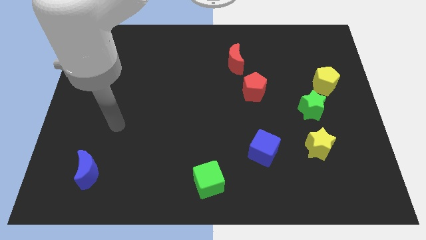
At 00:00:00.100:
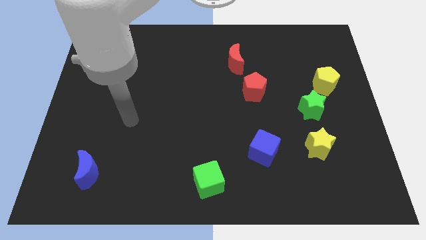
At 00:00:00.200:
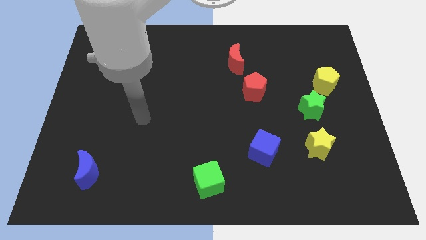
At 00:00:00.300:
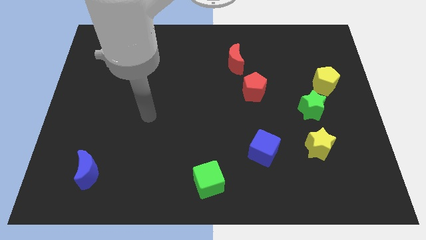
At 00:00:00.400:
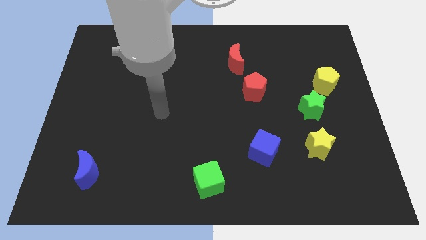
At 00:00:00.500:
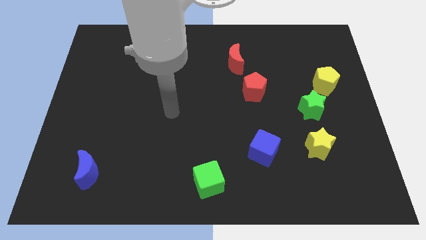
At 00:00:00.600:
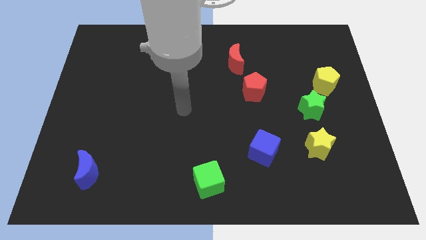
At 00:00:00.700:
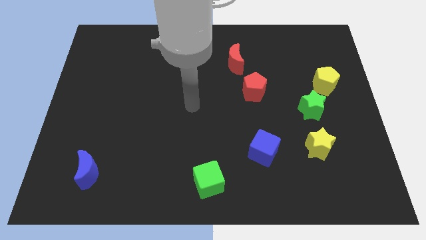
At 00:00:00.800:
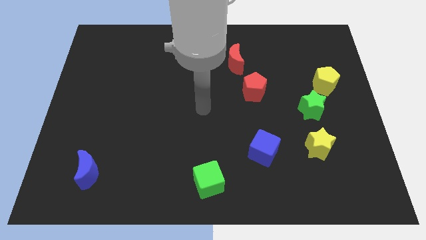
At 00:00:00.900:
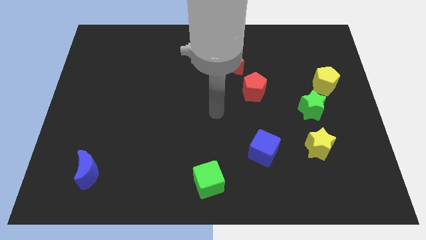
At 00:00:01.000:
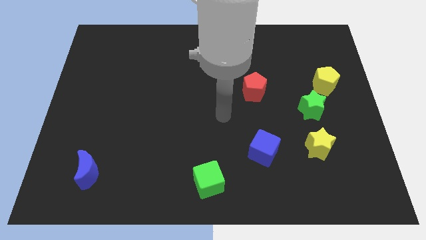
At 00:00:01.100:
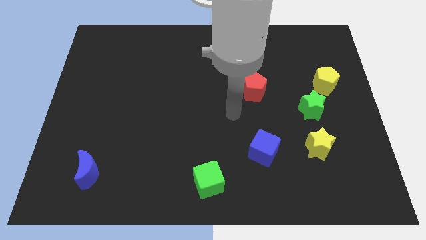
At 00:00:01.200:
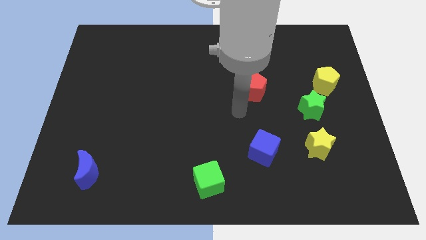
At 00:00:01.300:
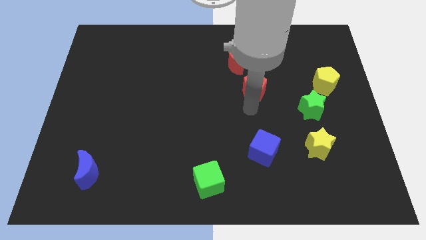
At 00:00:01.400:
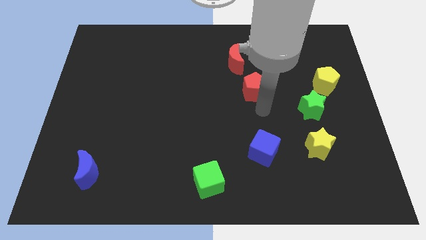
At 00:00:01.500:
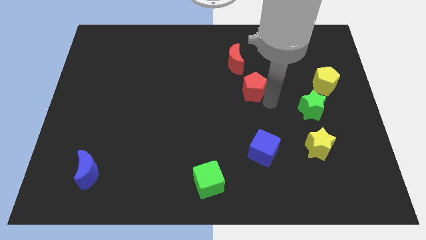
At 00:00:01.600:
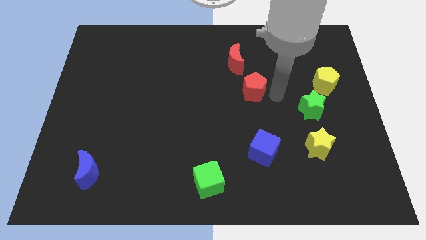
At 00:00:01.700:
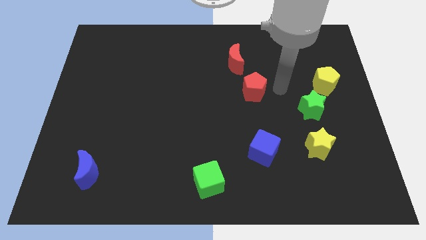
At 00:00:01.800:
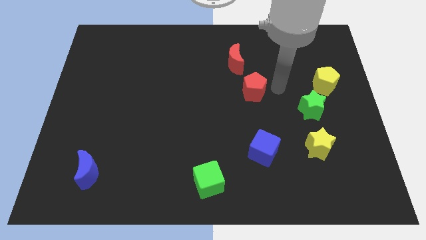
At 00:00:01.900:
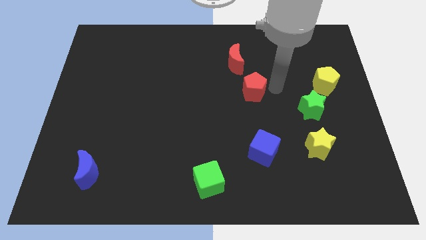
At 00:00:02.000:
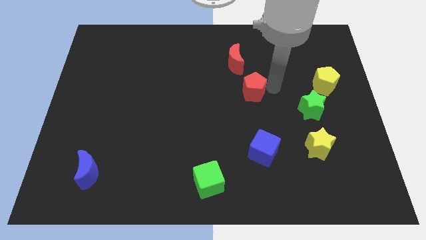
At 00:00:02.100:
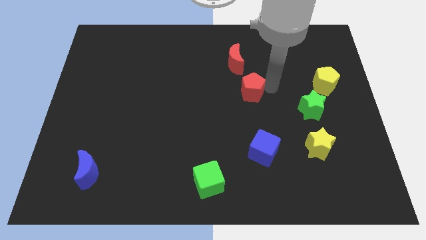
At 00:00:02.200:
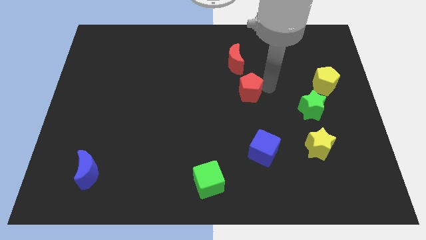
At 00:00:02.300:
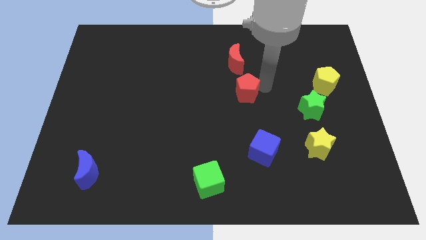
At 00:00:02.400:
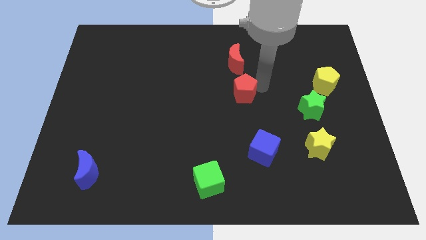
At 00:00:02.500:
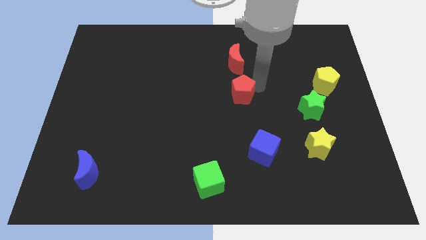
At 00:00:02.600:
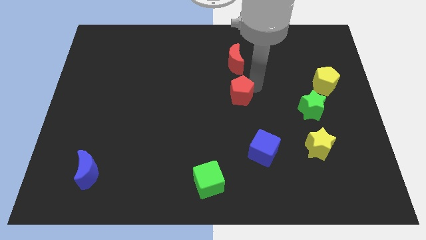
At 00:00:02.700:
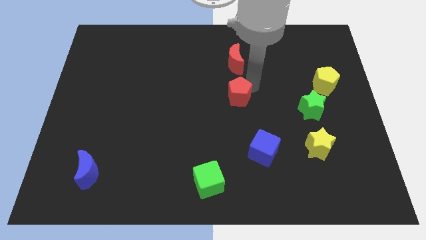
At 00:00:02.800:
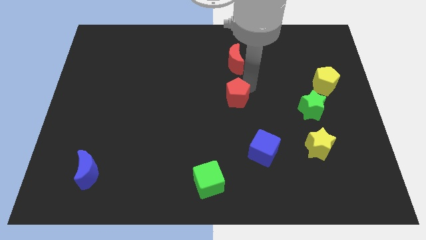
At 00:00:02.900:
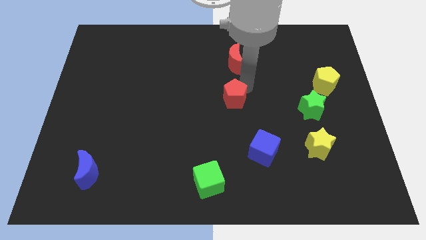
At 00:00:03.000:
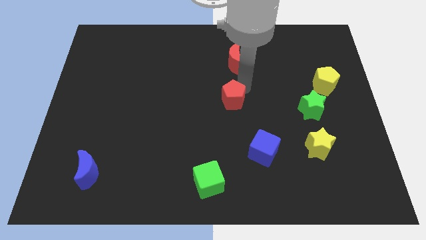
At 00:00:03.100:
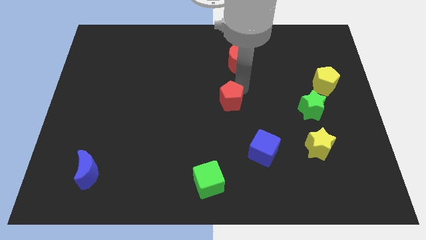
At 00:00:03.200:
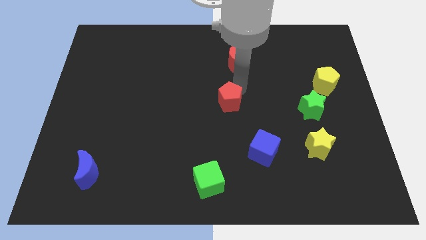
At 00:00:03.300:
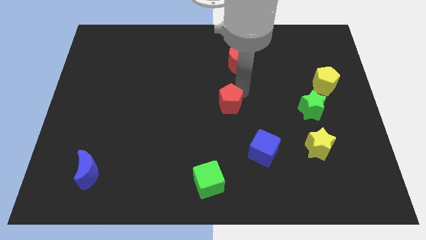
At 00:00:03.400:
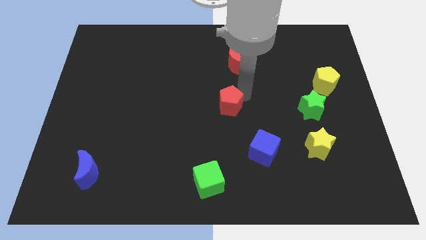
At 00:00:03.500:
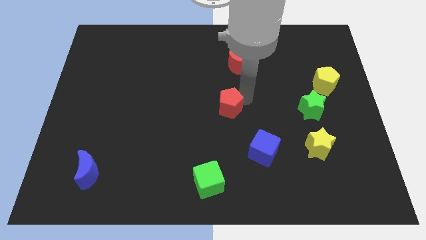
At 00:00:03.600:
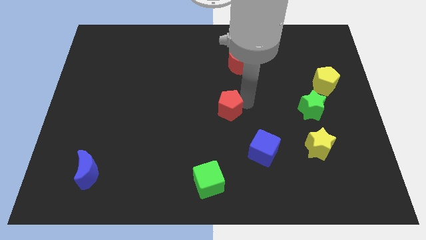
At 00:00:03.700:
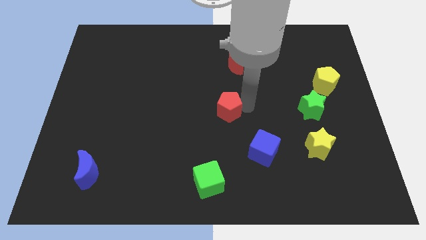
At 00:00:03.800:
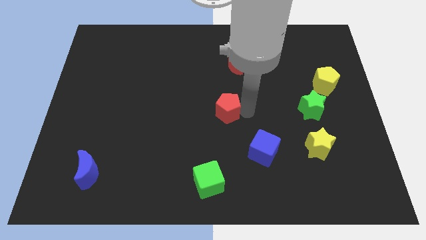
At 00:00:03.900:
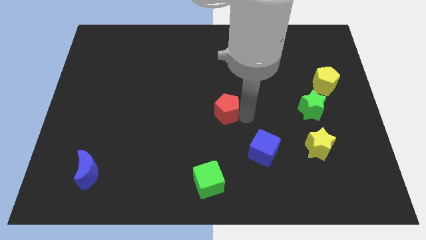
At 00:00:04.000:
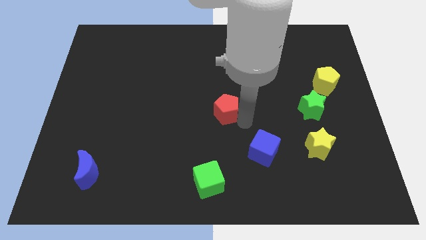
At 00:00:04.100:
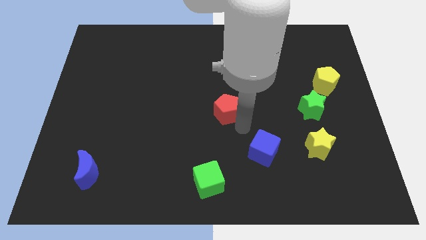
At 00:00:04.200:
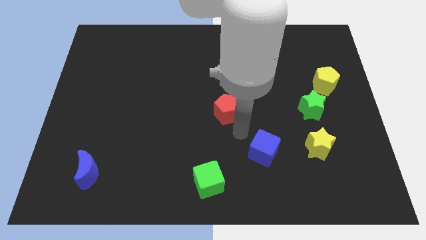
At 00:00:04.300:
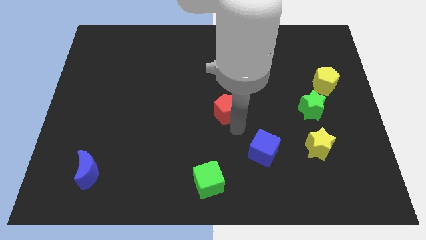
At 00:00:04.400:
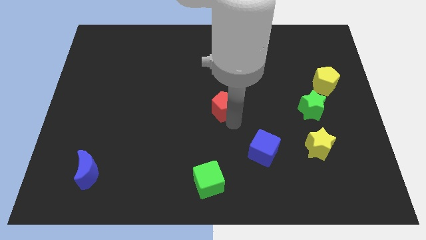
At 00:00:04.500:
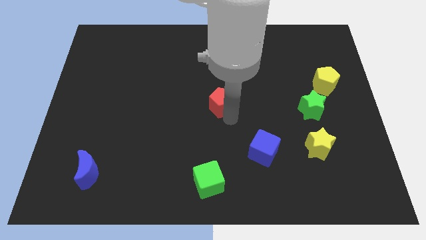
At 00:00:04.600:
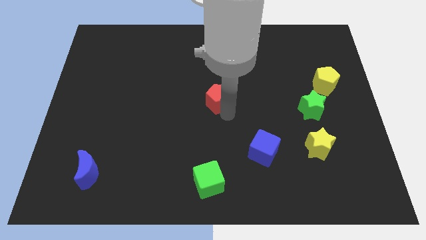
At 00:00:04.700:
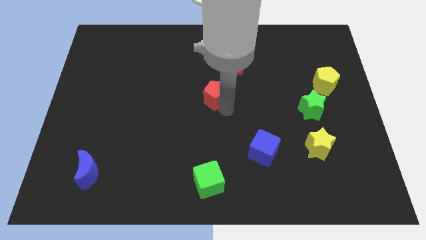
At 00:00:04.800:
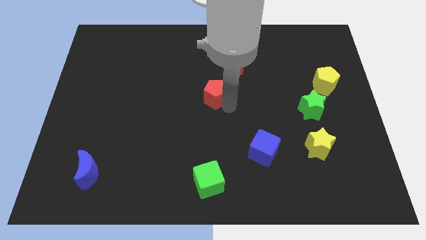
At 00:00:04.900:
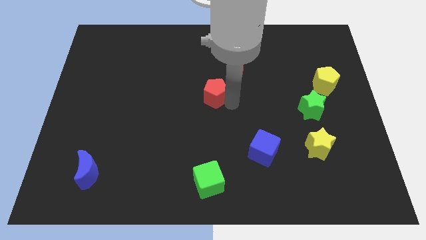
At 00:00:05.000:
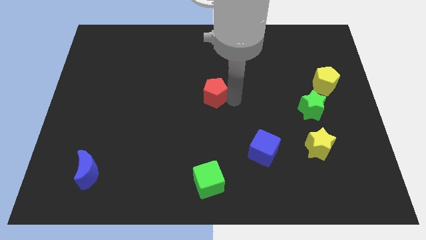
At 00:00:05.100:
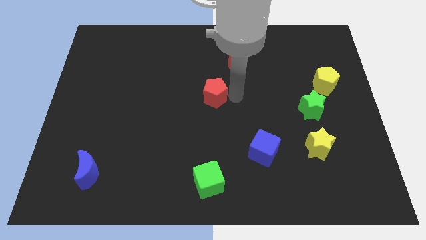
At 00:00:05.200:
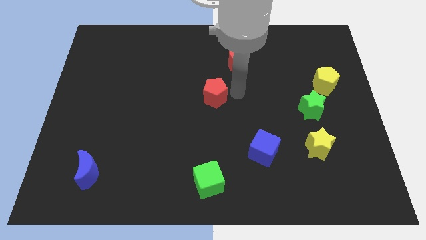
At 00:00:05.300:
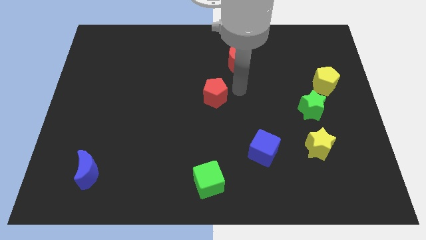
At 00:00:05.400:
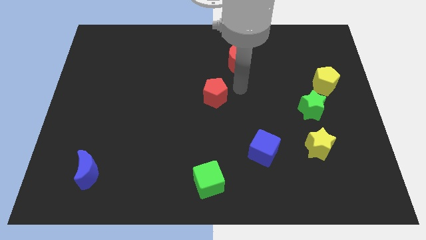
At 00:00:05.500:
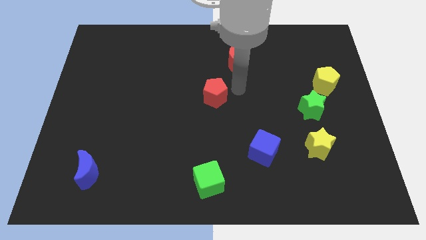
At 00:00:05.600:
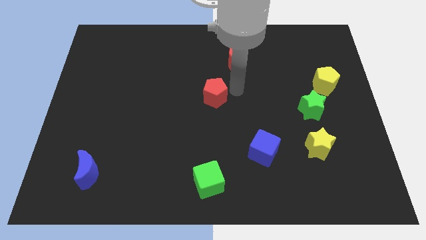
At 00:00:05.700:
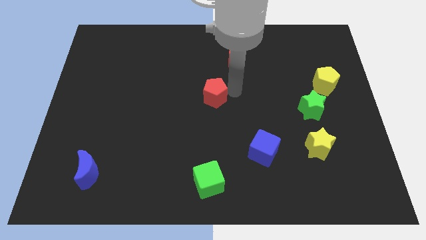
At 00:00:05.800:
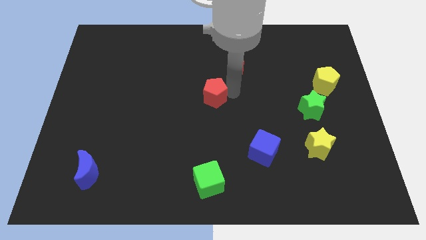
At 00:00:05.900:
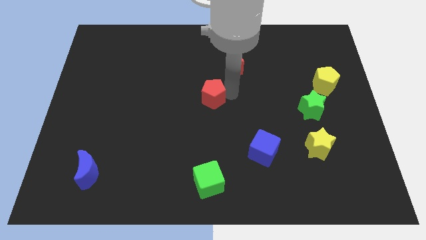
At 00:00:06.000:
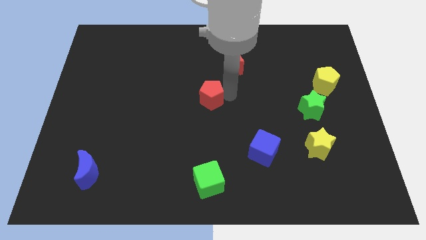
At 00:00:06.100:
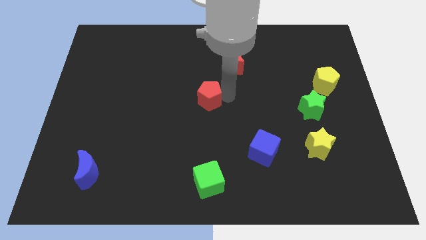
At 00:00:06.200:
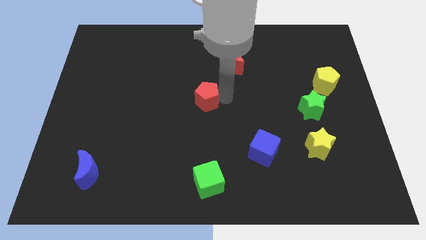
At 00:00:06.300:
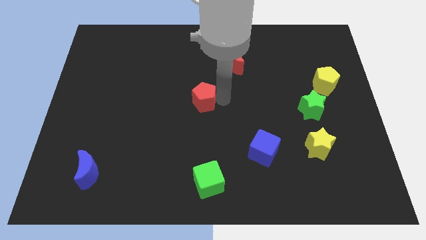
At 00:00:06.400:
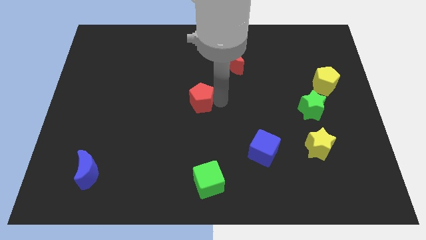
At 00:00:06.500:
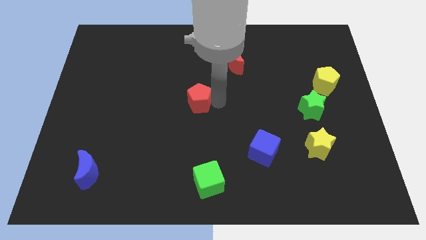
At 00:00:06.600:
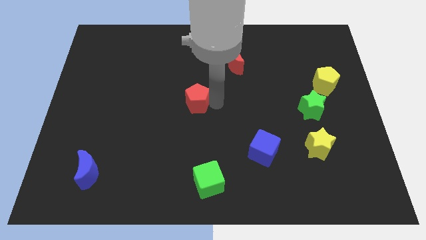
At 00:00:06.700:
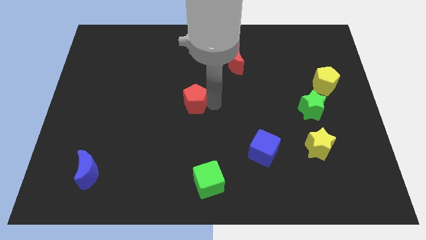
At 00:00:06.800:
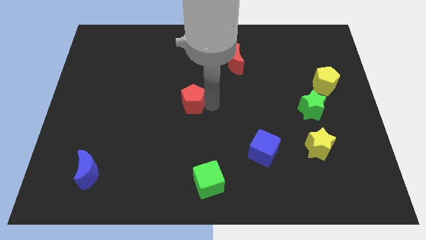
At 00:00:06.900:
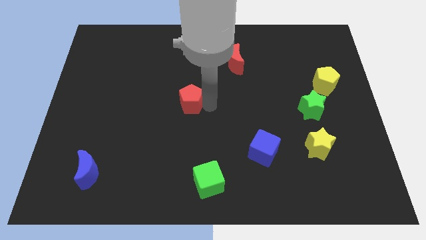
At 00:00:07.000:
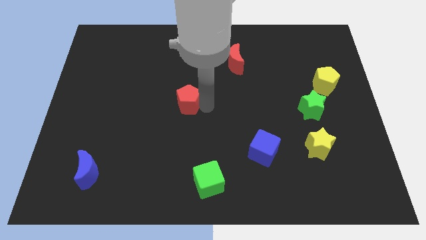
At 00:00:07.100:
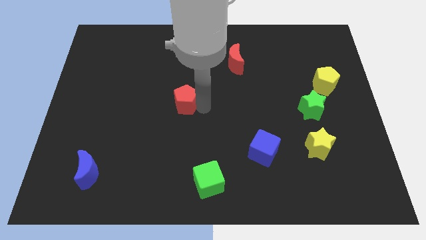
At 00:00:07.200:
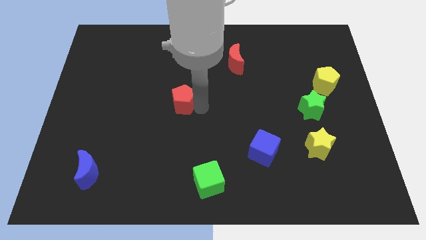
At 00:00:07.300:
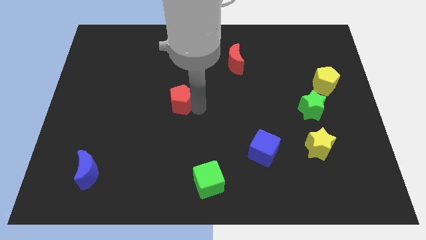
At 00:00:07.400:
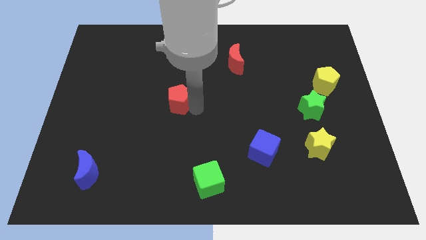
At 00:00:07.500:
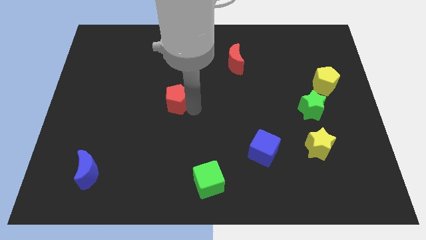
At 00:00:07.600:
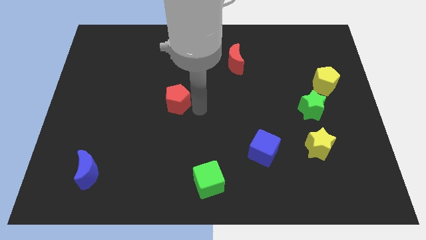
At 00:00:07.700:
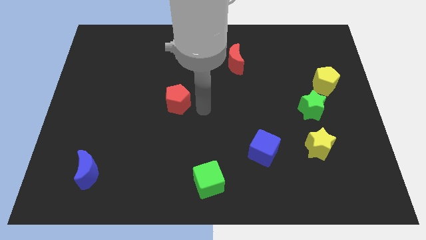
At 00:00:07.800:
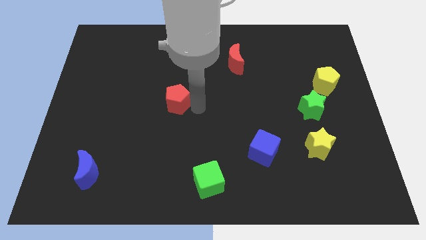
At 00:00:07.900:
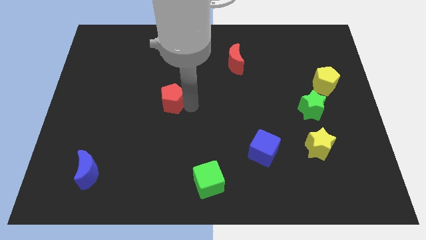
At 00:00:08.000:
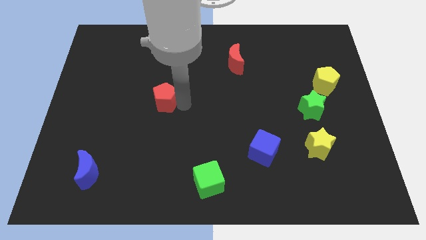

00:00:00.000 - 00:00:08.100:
push the red pentagon left
